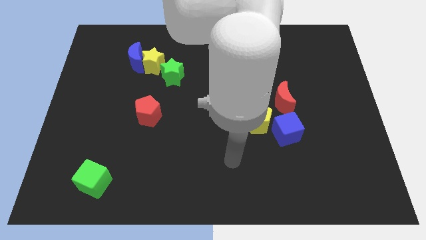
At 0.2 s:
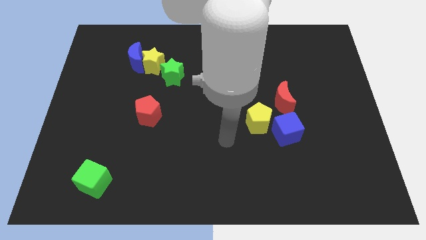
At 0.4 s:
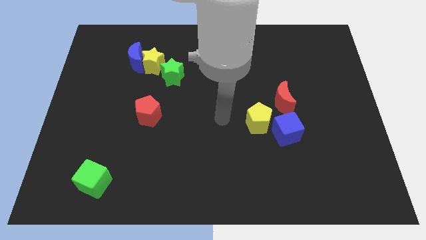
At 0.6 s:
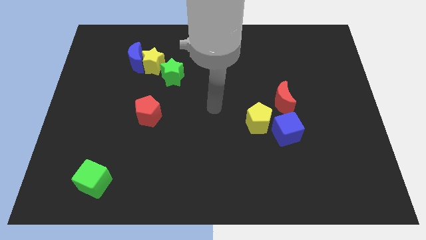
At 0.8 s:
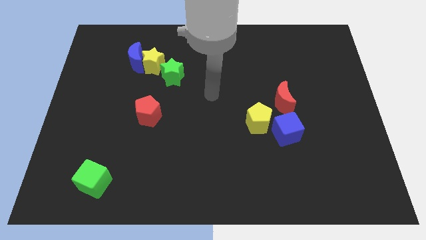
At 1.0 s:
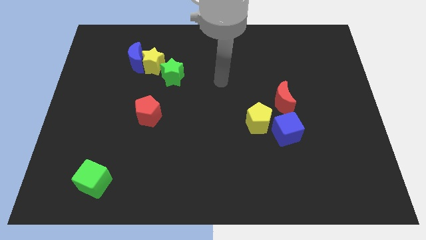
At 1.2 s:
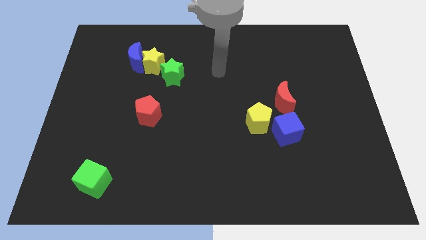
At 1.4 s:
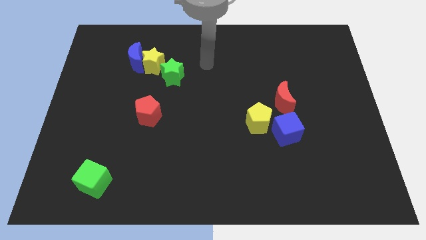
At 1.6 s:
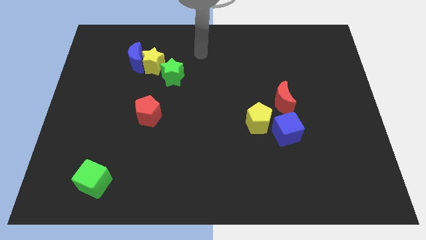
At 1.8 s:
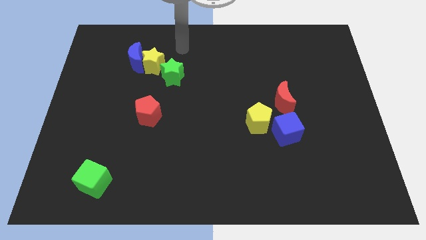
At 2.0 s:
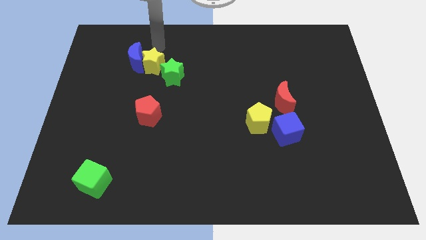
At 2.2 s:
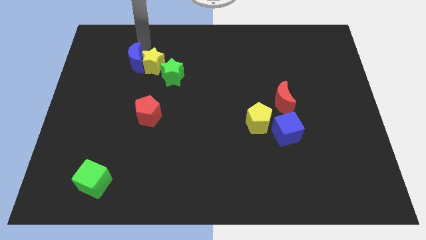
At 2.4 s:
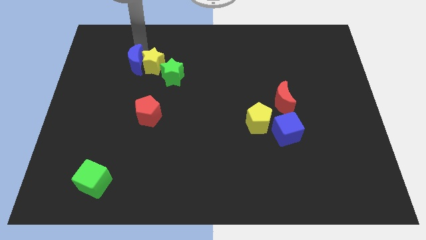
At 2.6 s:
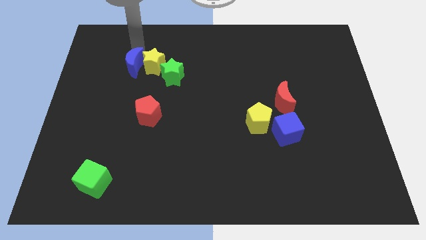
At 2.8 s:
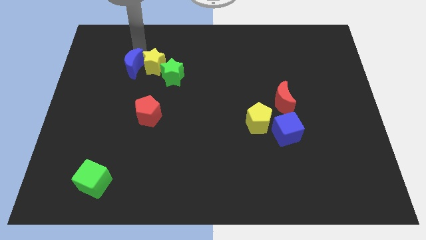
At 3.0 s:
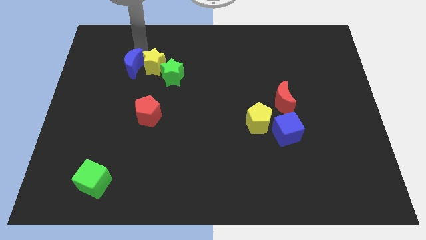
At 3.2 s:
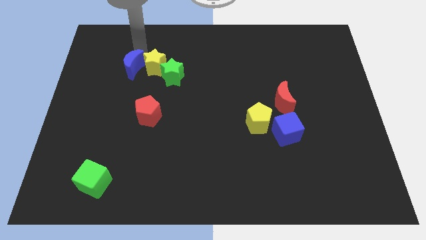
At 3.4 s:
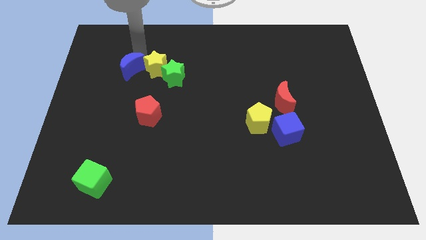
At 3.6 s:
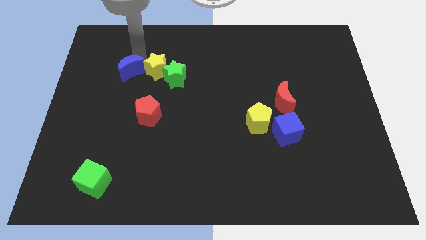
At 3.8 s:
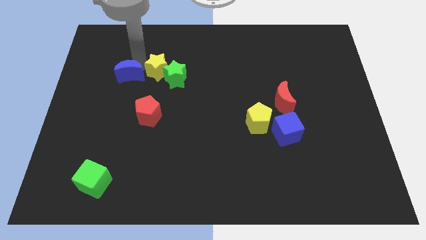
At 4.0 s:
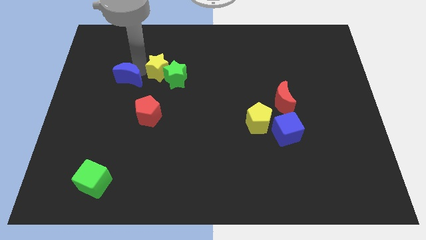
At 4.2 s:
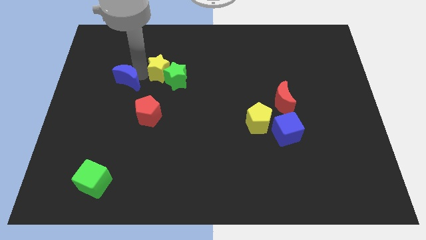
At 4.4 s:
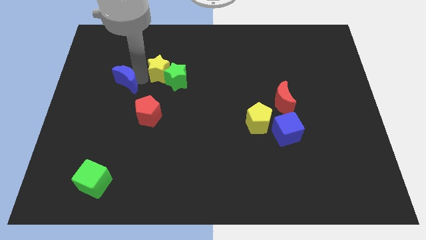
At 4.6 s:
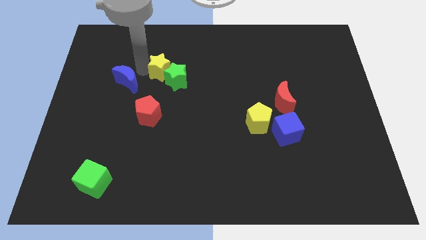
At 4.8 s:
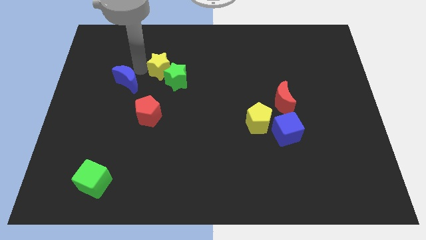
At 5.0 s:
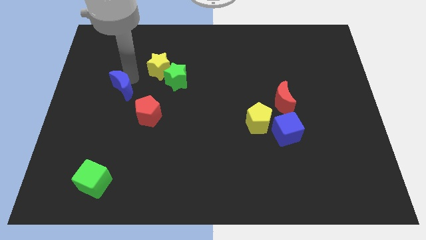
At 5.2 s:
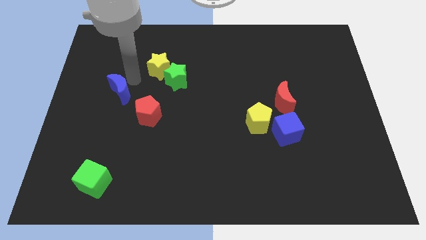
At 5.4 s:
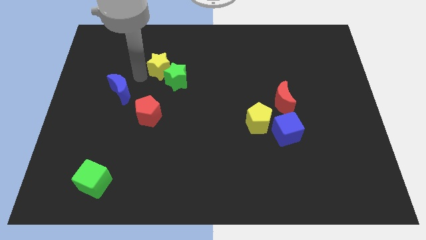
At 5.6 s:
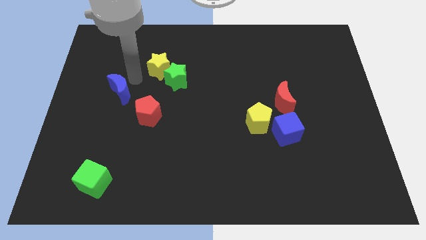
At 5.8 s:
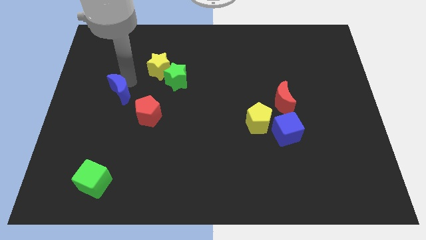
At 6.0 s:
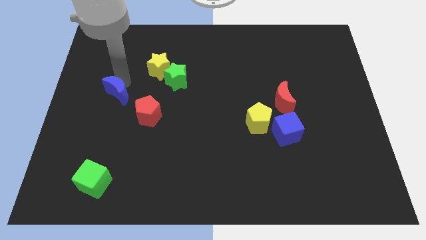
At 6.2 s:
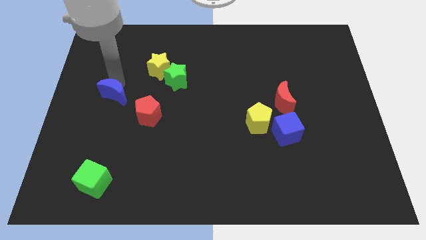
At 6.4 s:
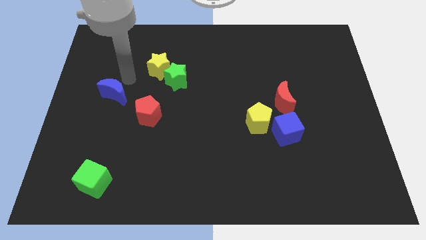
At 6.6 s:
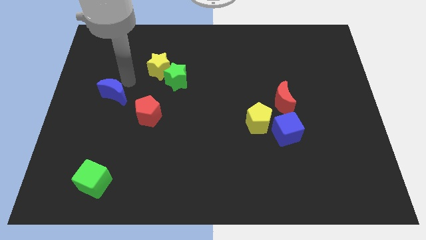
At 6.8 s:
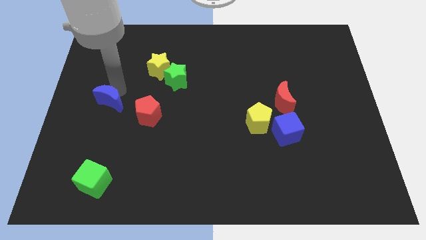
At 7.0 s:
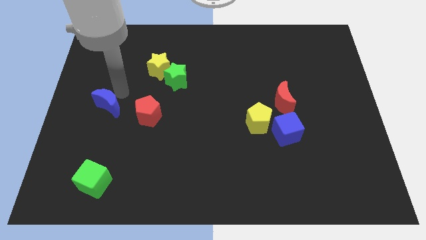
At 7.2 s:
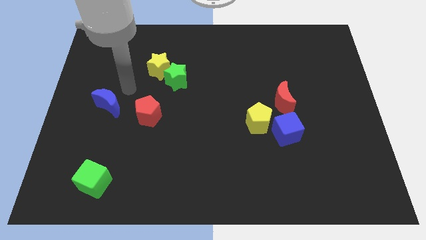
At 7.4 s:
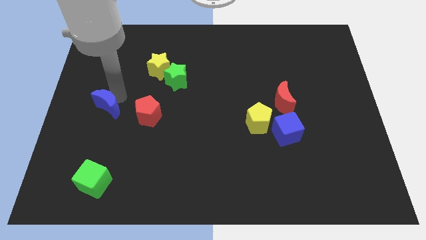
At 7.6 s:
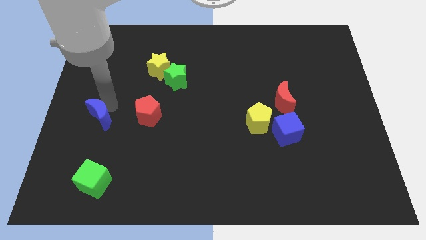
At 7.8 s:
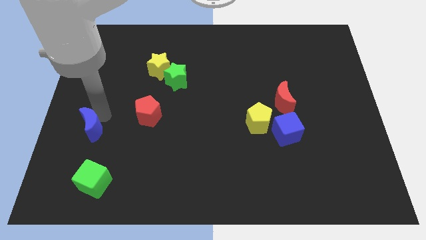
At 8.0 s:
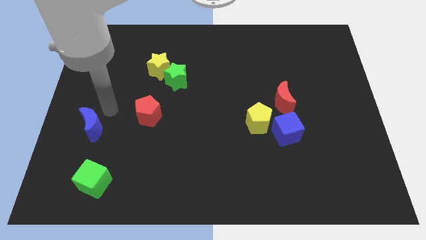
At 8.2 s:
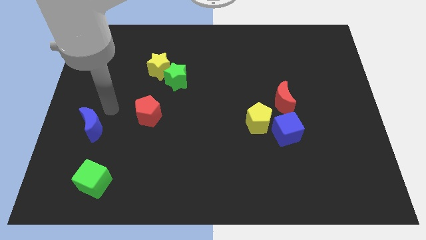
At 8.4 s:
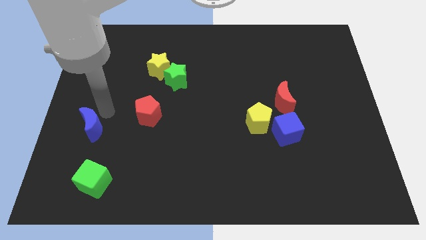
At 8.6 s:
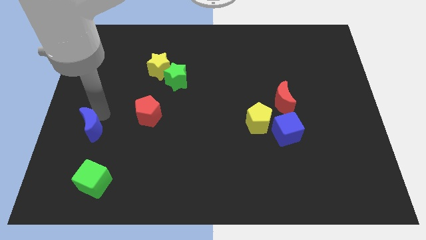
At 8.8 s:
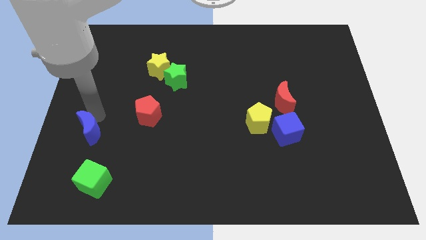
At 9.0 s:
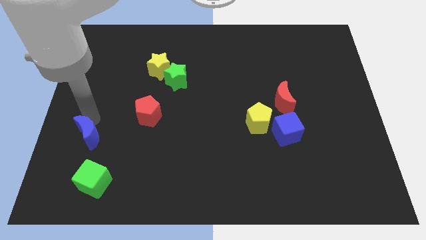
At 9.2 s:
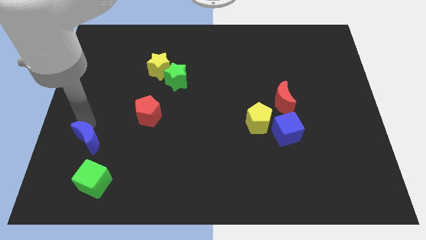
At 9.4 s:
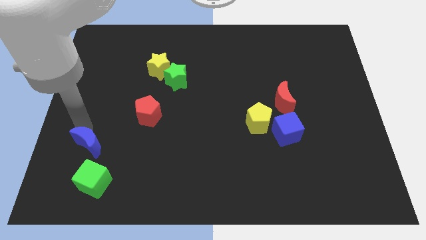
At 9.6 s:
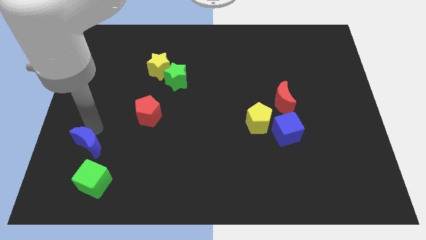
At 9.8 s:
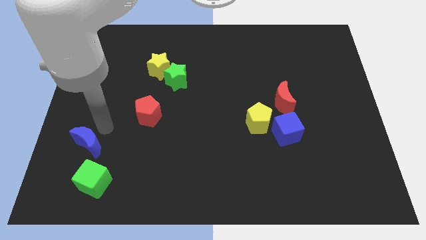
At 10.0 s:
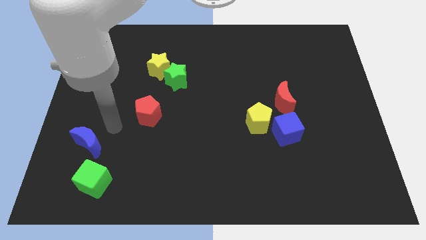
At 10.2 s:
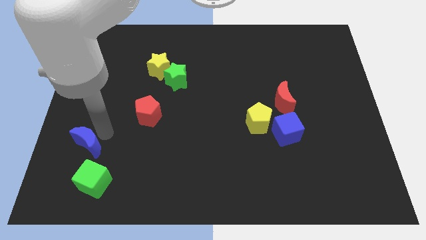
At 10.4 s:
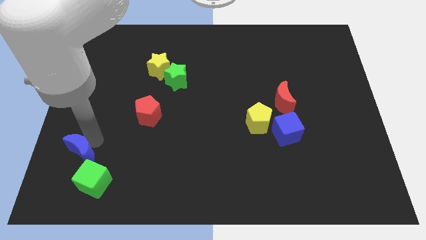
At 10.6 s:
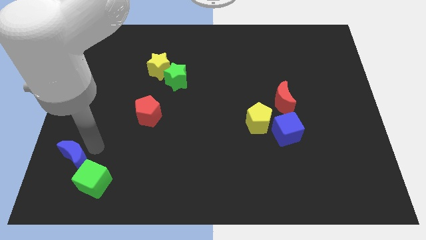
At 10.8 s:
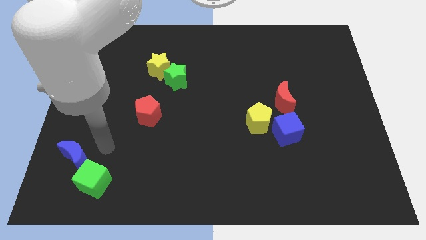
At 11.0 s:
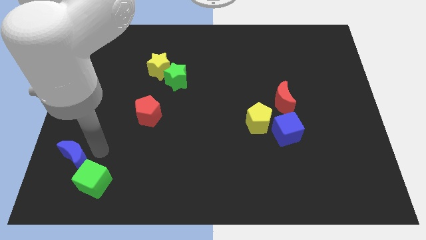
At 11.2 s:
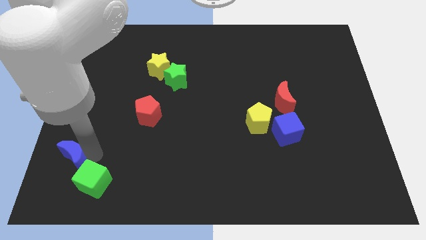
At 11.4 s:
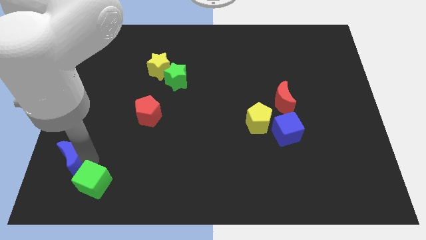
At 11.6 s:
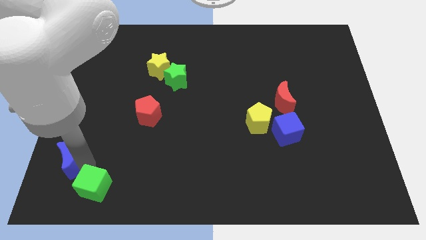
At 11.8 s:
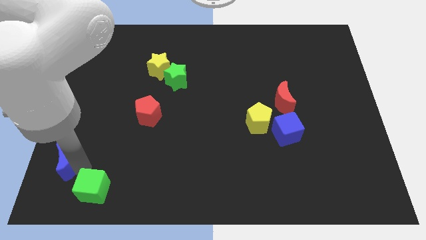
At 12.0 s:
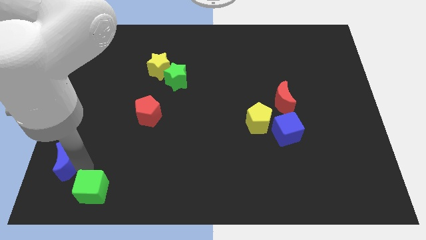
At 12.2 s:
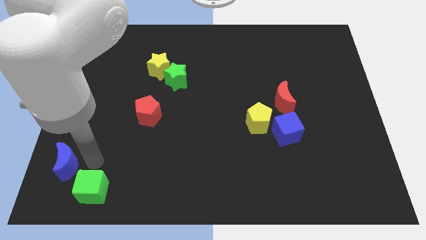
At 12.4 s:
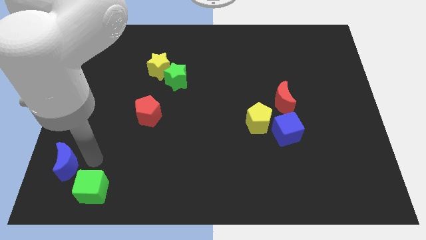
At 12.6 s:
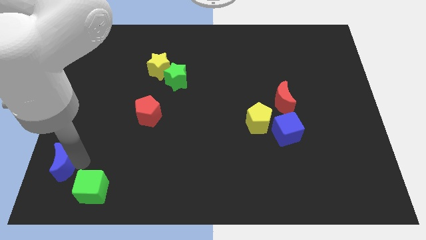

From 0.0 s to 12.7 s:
move the blue moon to the lower left corner
